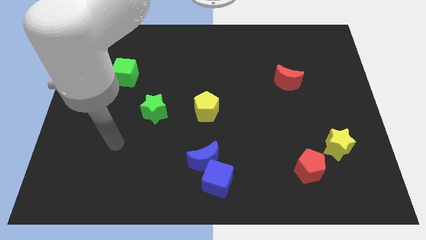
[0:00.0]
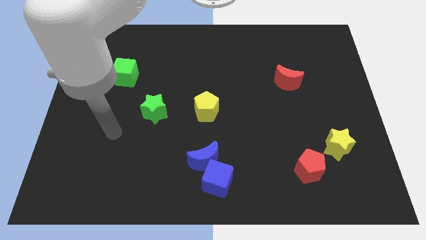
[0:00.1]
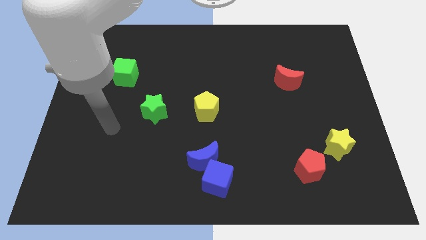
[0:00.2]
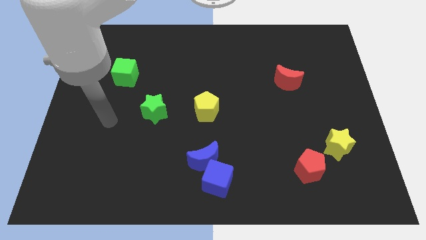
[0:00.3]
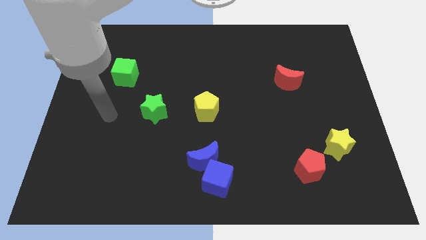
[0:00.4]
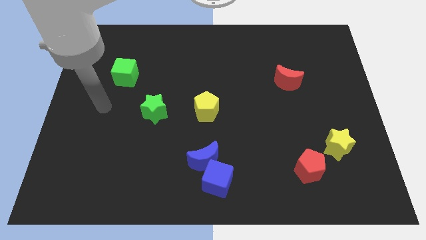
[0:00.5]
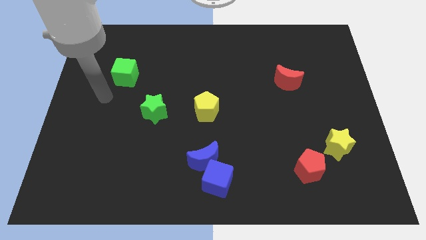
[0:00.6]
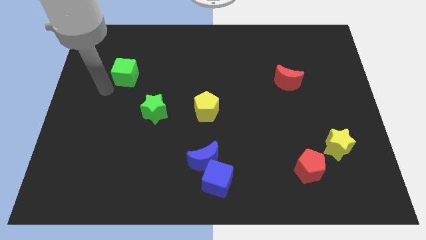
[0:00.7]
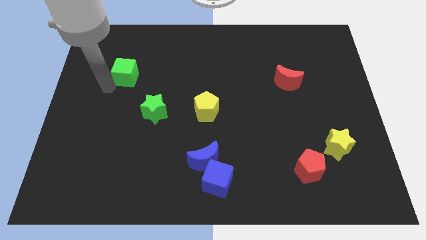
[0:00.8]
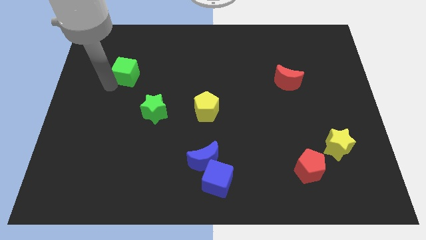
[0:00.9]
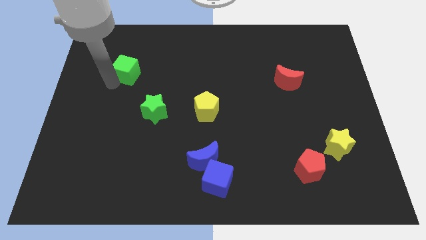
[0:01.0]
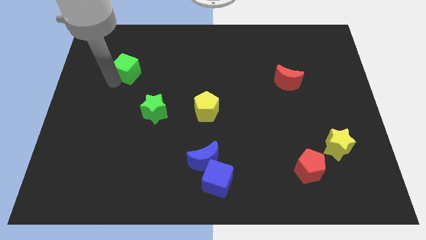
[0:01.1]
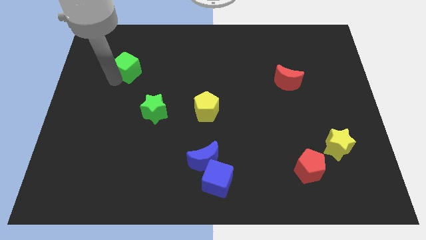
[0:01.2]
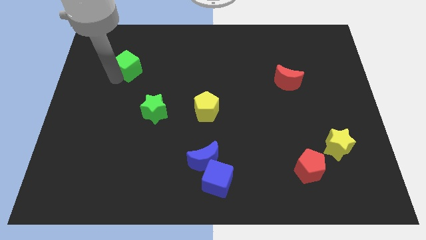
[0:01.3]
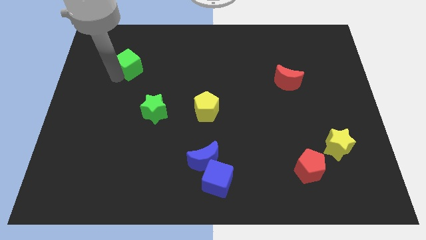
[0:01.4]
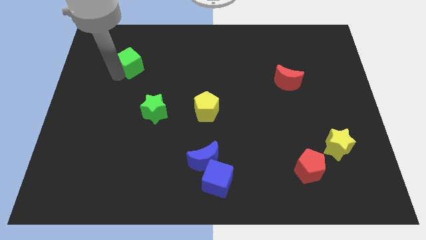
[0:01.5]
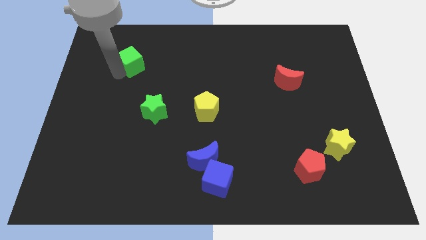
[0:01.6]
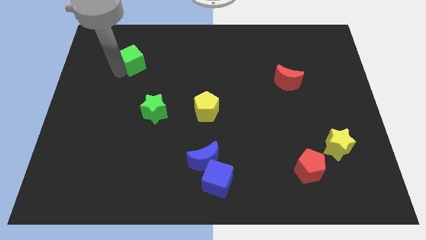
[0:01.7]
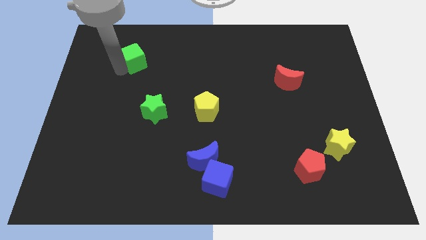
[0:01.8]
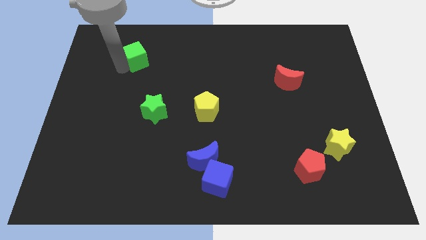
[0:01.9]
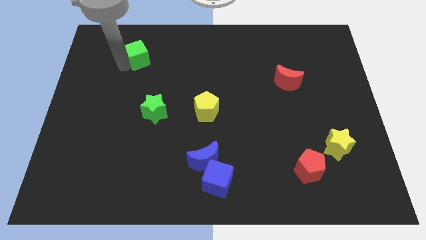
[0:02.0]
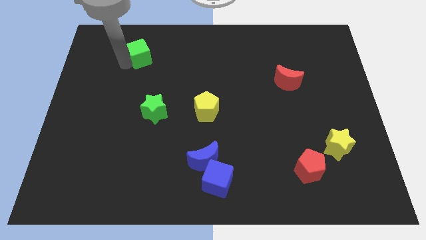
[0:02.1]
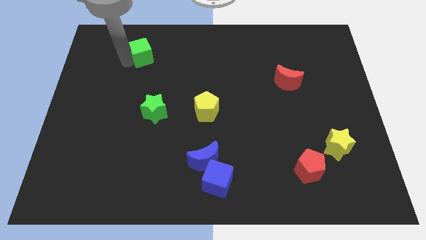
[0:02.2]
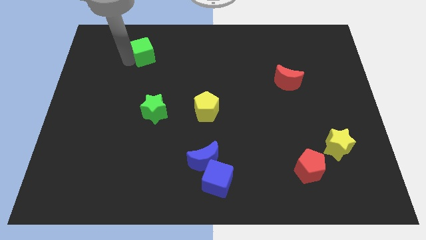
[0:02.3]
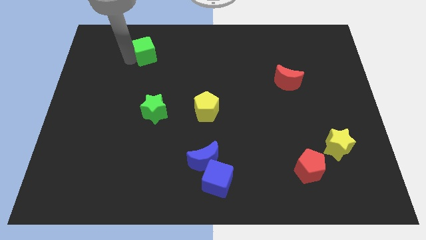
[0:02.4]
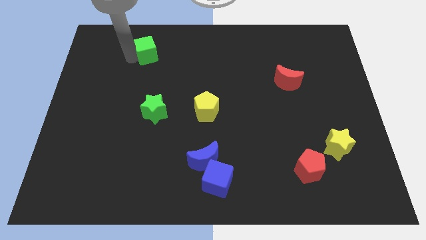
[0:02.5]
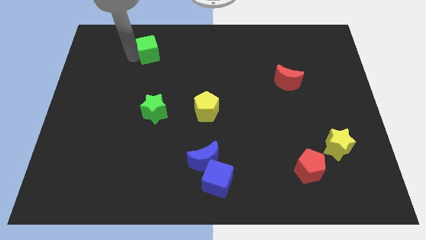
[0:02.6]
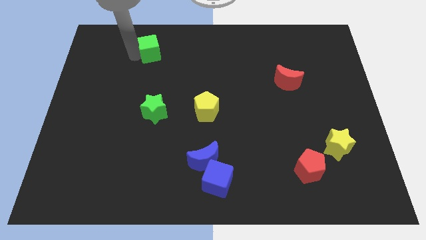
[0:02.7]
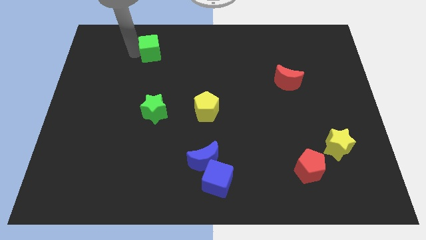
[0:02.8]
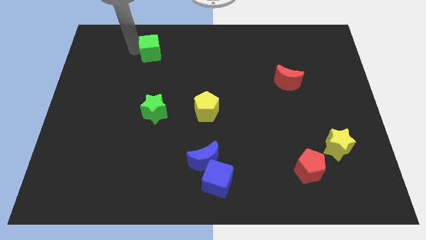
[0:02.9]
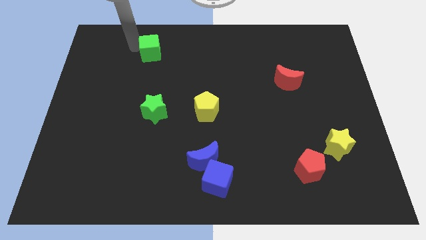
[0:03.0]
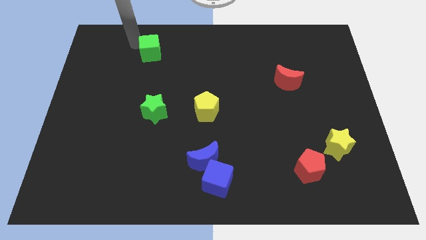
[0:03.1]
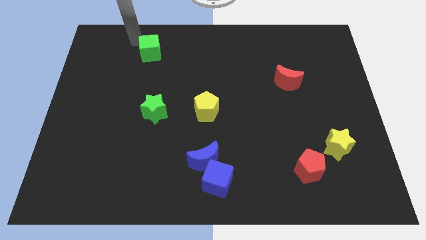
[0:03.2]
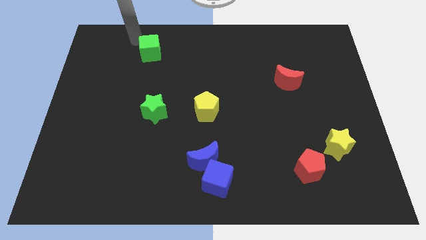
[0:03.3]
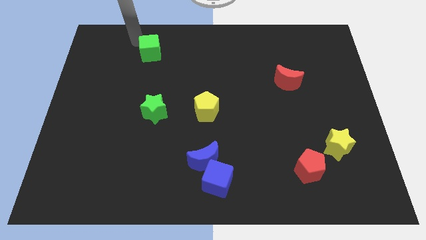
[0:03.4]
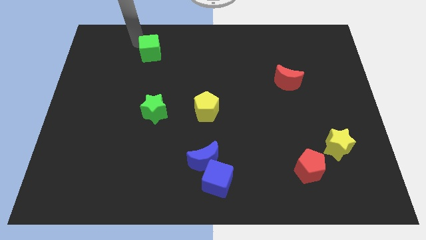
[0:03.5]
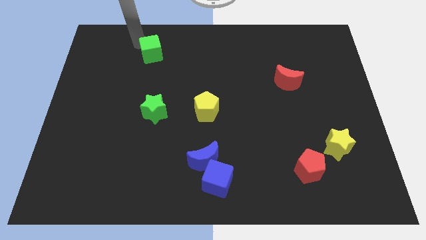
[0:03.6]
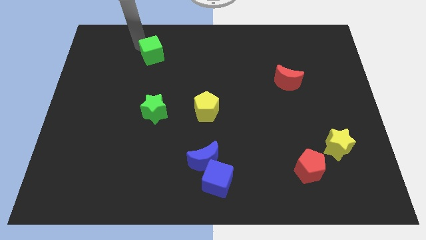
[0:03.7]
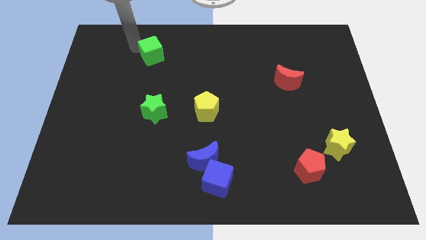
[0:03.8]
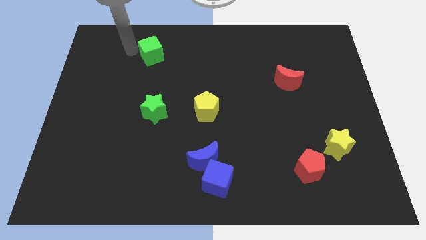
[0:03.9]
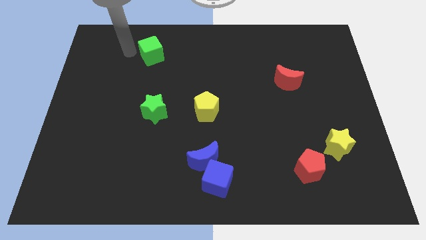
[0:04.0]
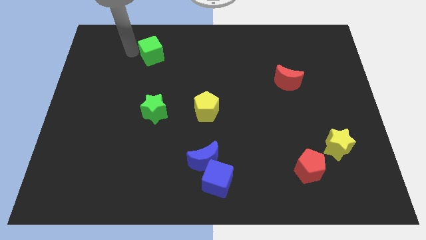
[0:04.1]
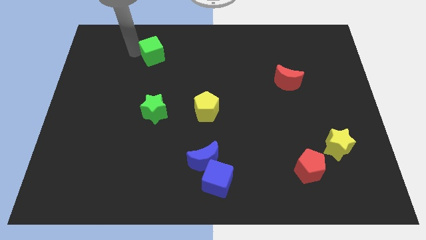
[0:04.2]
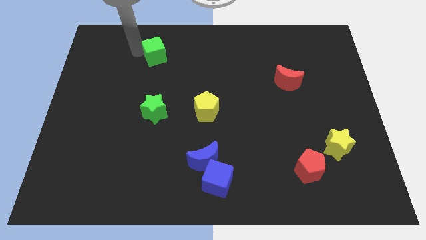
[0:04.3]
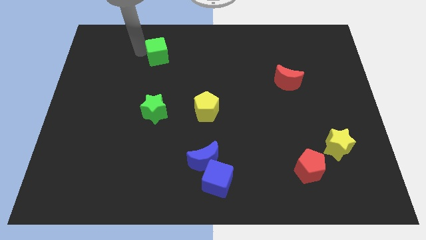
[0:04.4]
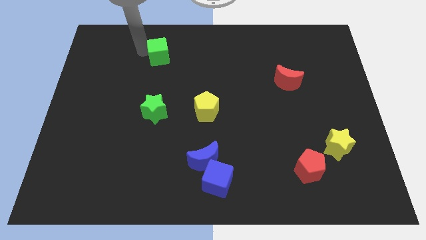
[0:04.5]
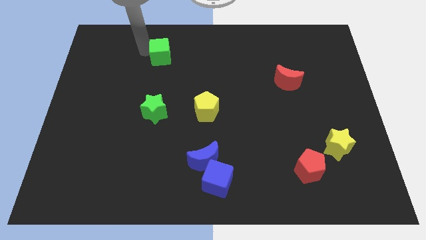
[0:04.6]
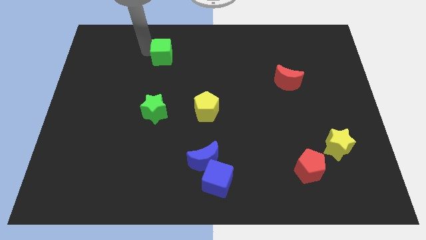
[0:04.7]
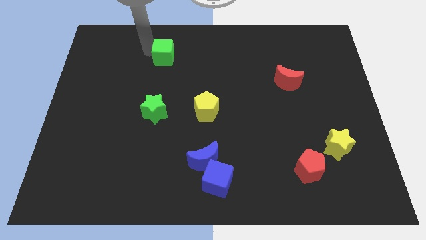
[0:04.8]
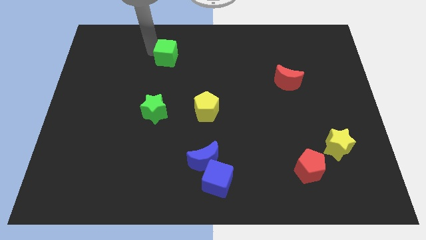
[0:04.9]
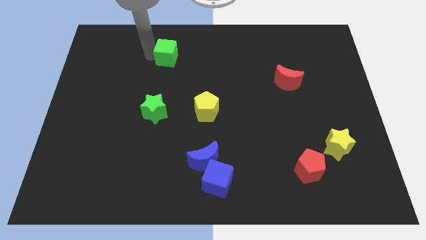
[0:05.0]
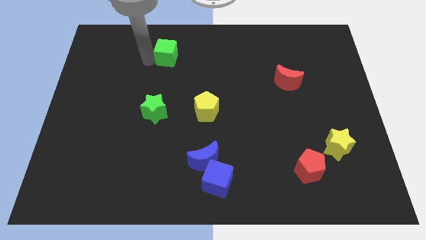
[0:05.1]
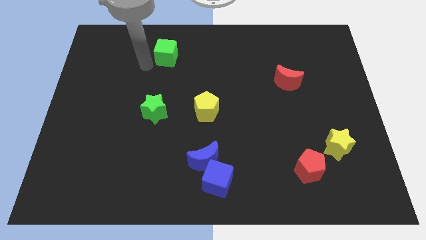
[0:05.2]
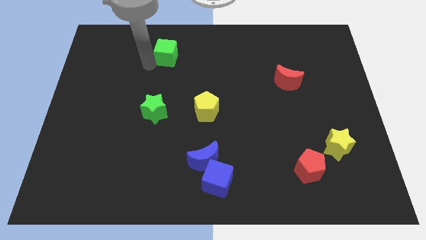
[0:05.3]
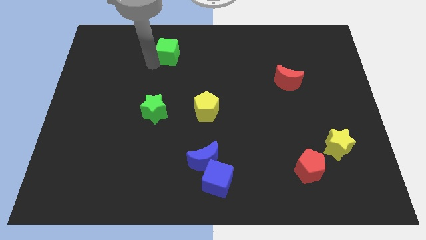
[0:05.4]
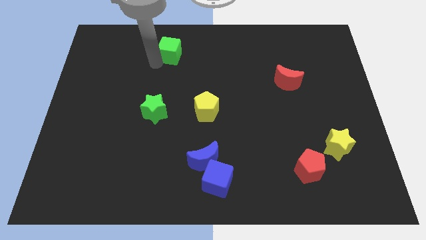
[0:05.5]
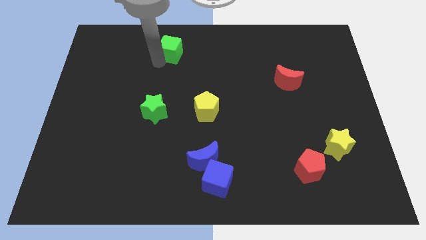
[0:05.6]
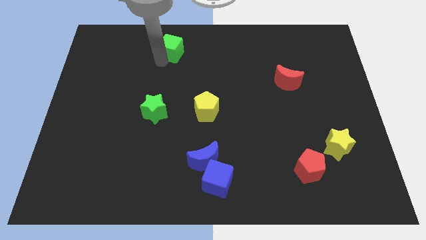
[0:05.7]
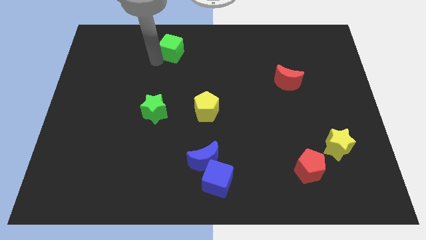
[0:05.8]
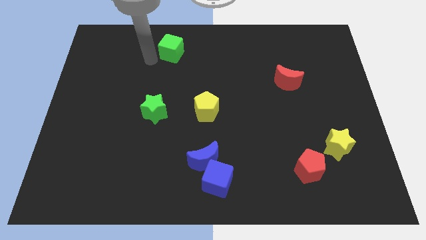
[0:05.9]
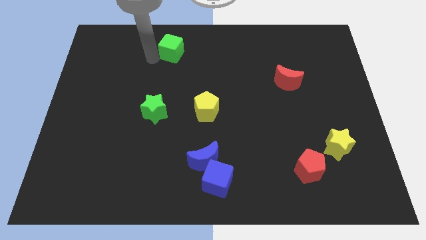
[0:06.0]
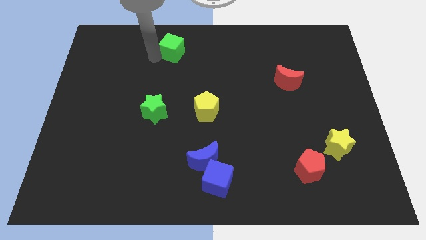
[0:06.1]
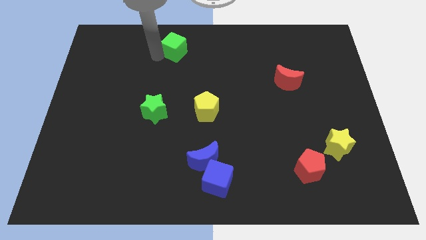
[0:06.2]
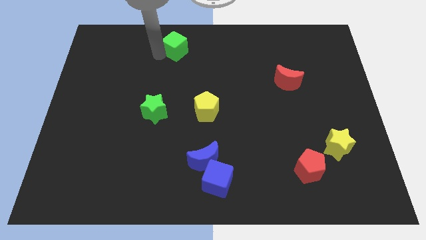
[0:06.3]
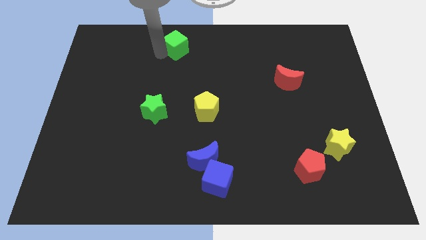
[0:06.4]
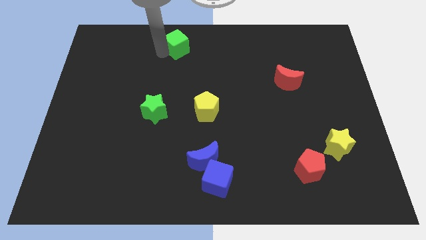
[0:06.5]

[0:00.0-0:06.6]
slide the green cube to the towards your base
